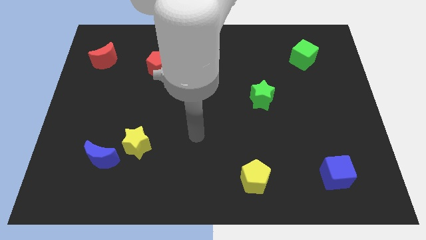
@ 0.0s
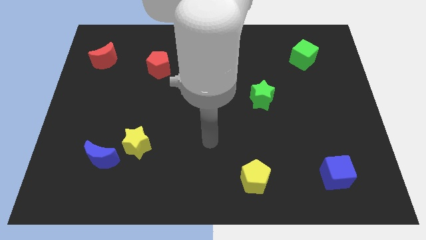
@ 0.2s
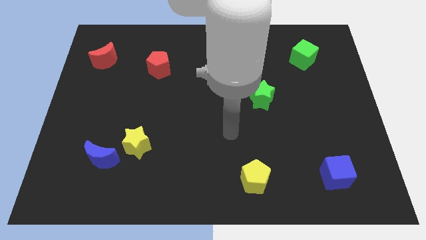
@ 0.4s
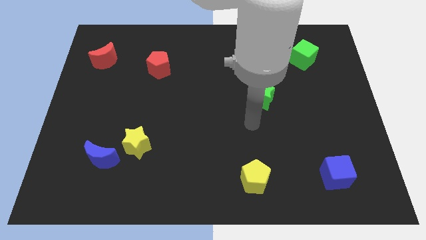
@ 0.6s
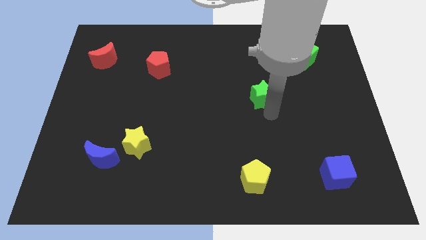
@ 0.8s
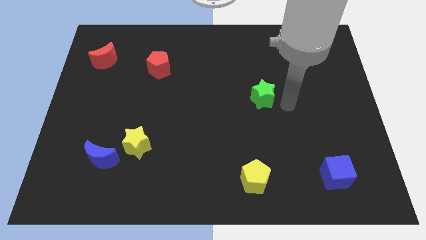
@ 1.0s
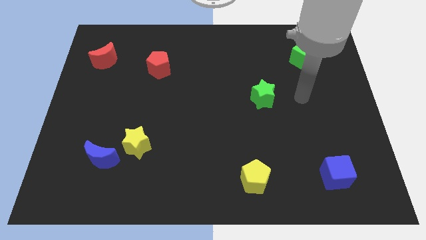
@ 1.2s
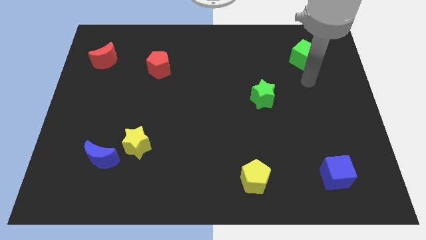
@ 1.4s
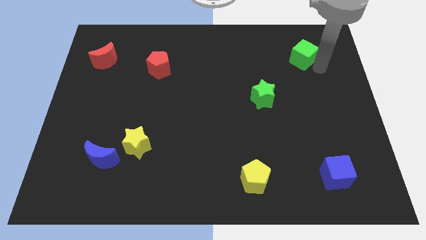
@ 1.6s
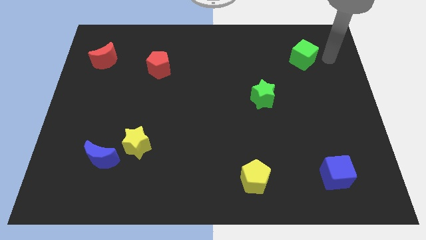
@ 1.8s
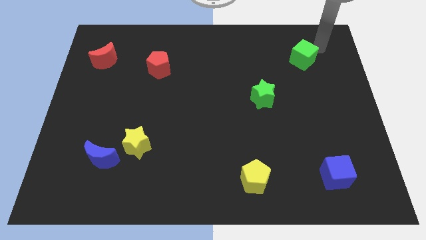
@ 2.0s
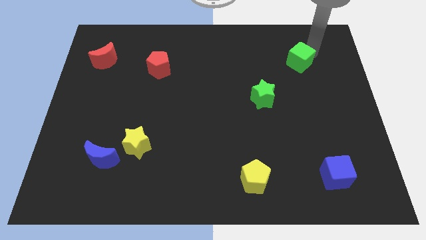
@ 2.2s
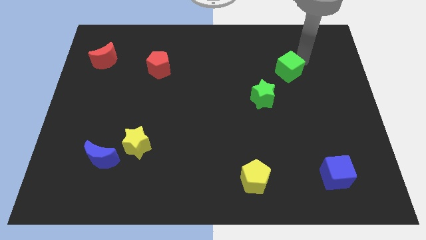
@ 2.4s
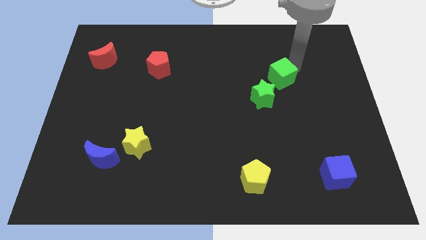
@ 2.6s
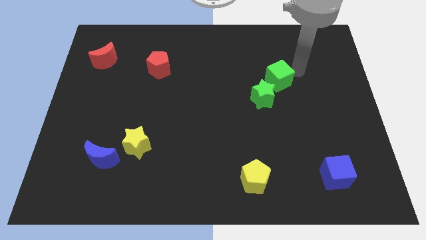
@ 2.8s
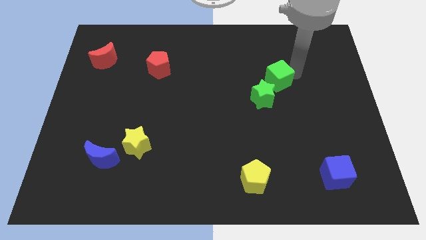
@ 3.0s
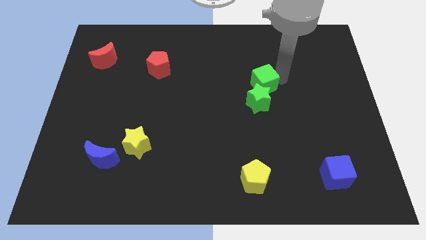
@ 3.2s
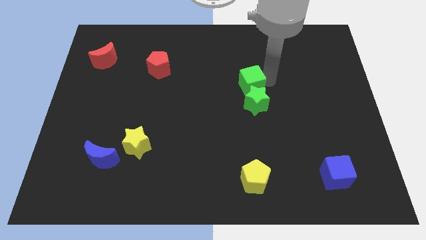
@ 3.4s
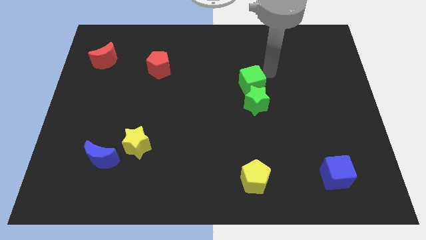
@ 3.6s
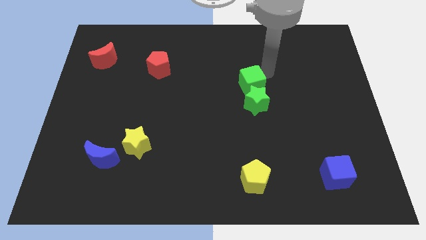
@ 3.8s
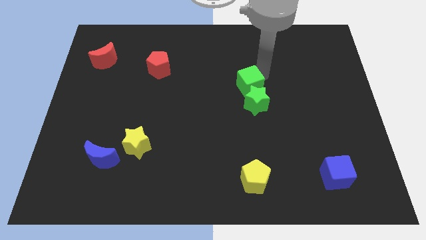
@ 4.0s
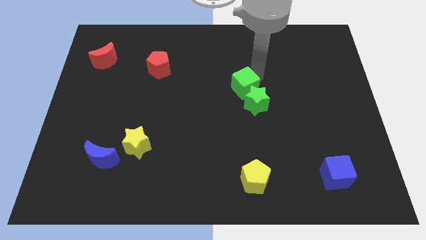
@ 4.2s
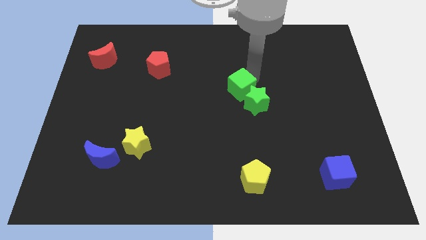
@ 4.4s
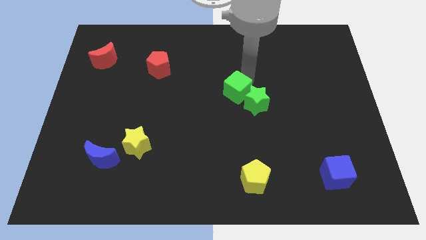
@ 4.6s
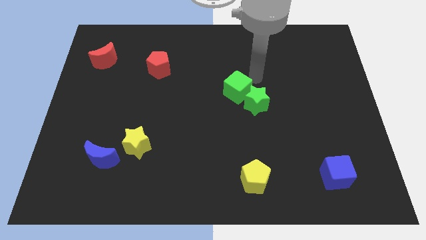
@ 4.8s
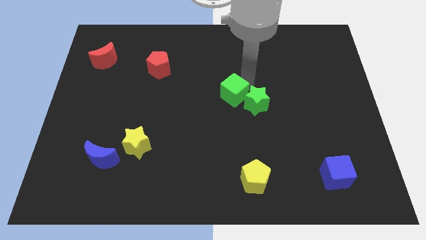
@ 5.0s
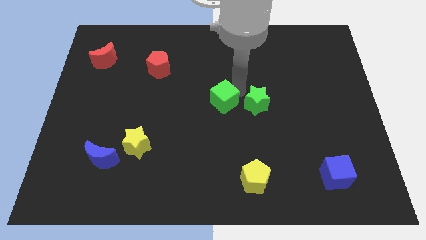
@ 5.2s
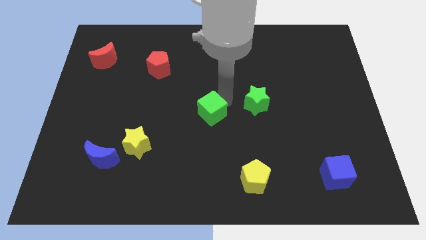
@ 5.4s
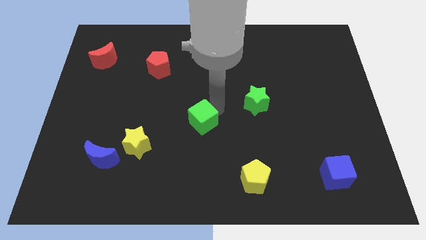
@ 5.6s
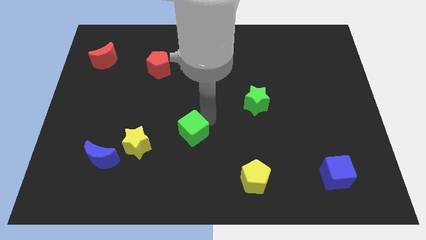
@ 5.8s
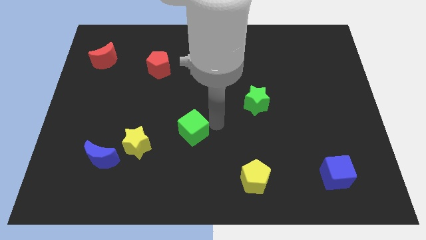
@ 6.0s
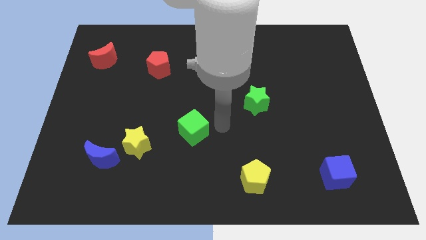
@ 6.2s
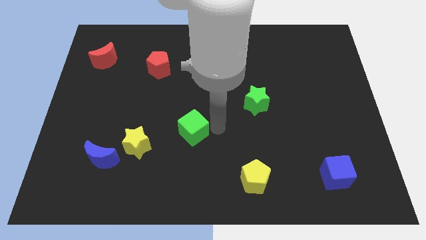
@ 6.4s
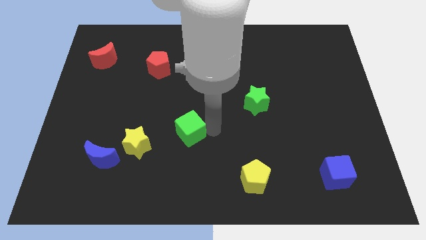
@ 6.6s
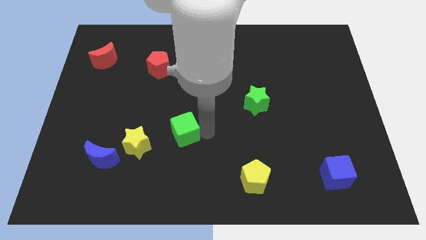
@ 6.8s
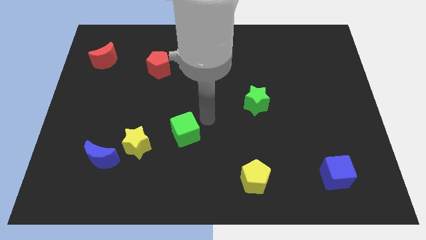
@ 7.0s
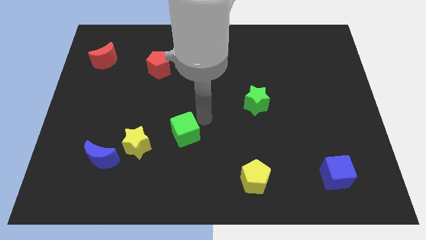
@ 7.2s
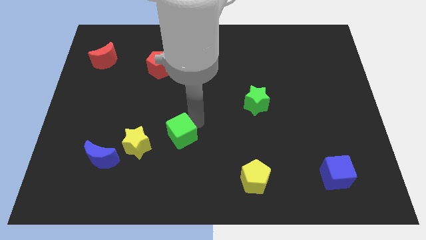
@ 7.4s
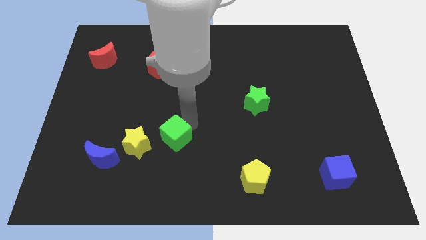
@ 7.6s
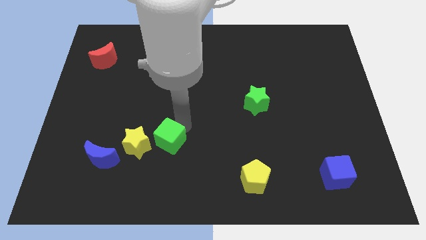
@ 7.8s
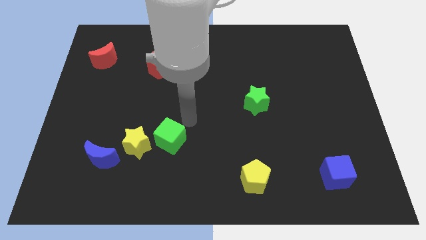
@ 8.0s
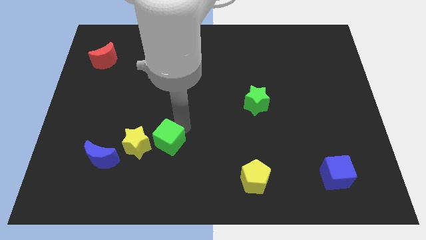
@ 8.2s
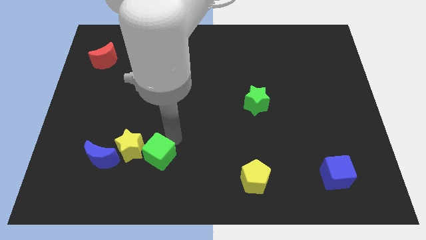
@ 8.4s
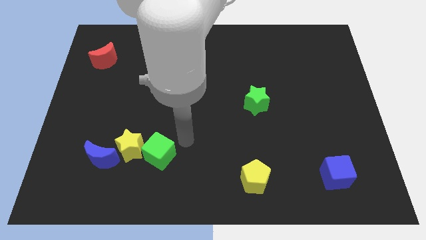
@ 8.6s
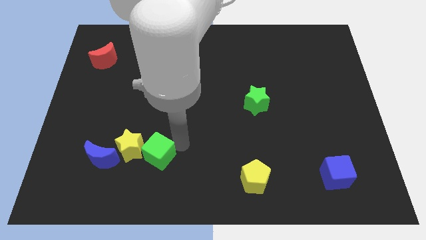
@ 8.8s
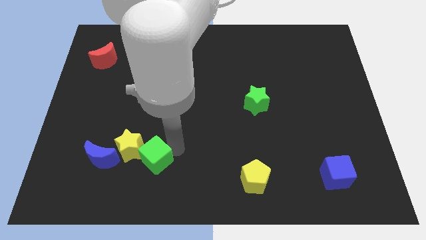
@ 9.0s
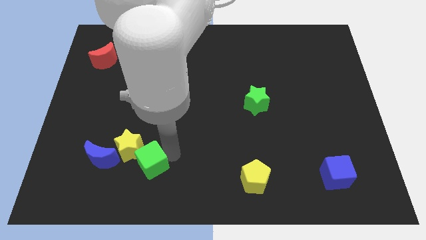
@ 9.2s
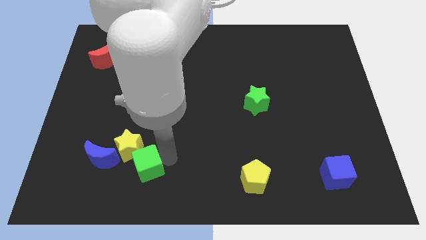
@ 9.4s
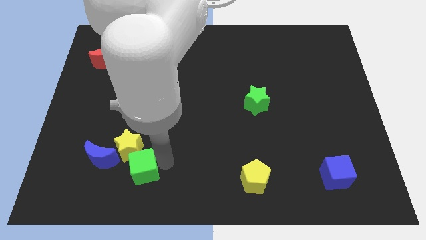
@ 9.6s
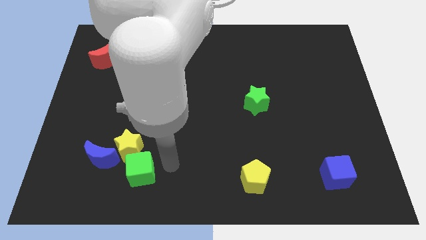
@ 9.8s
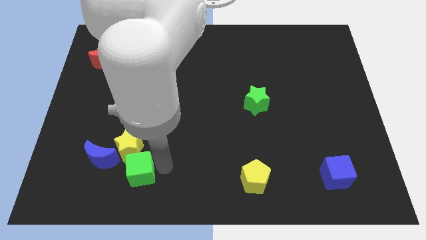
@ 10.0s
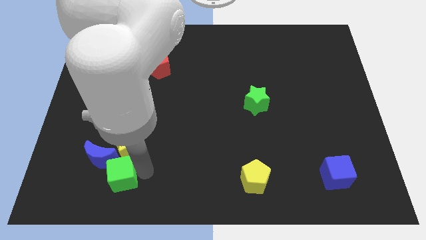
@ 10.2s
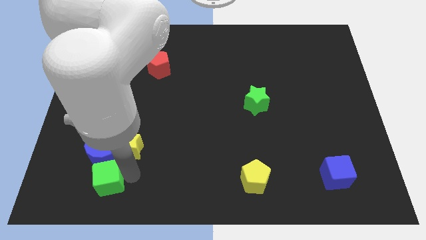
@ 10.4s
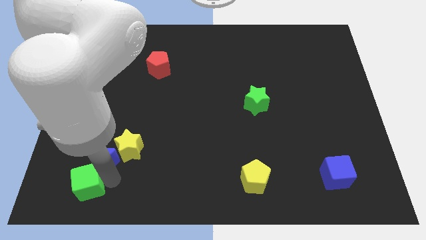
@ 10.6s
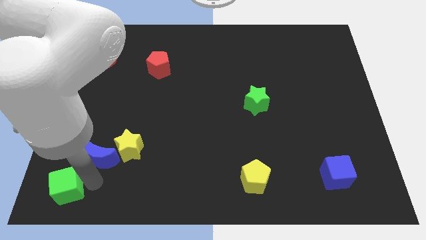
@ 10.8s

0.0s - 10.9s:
move the green cube to the bottom left of the board

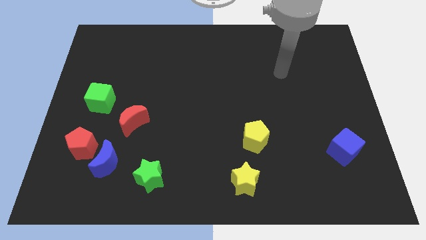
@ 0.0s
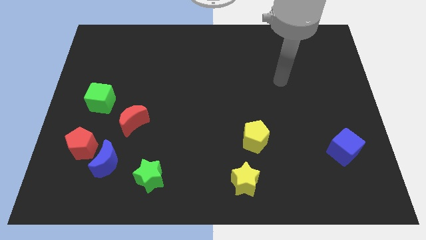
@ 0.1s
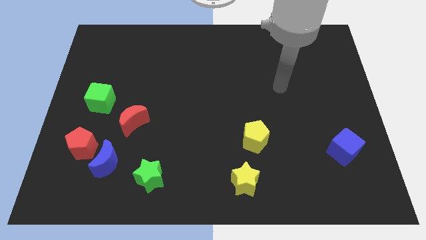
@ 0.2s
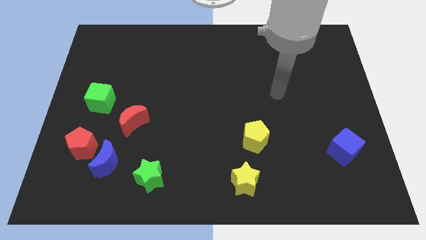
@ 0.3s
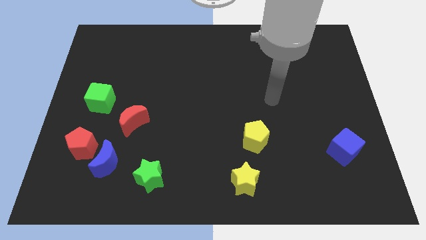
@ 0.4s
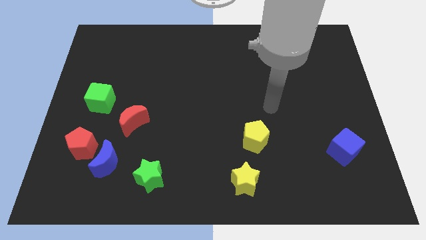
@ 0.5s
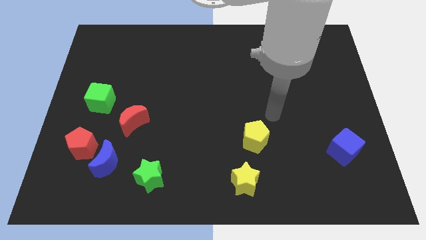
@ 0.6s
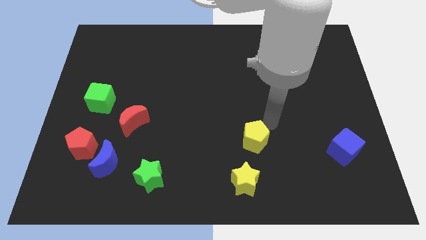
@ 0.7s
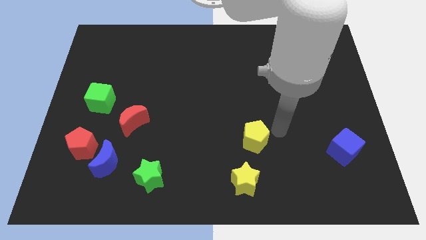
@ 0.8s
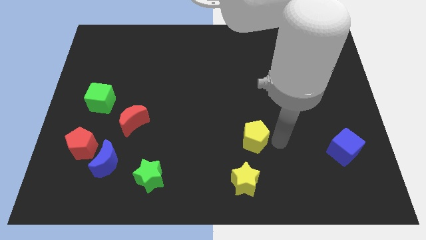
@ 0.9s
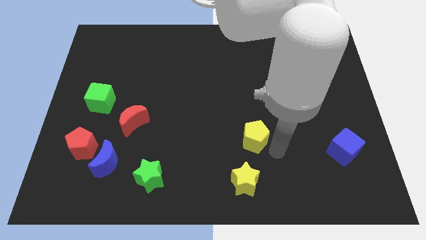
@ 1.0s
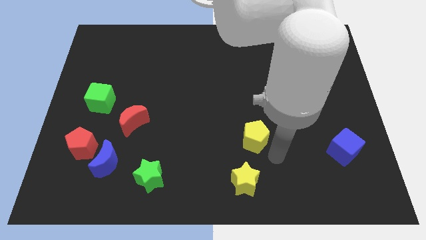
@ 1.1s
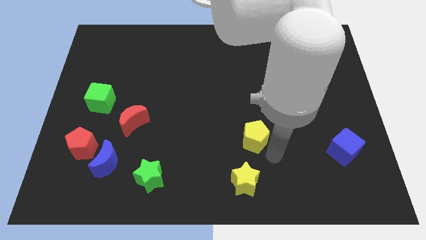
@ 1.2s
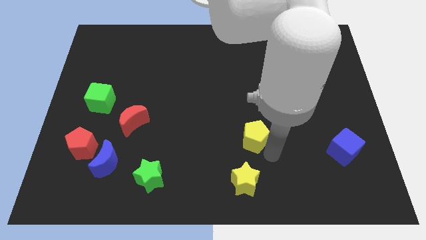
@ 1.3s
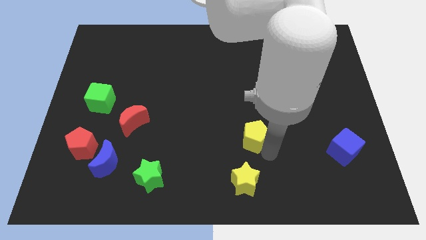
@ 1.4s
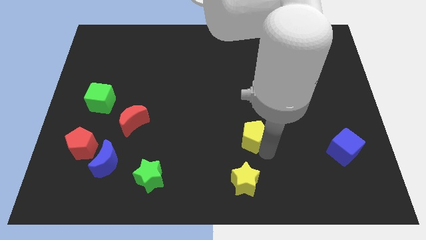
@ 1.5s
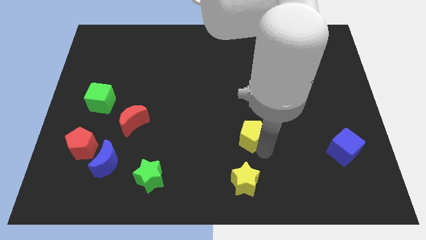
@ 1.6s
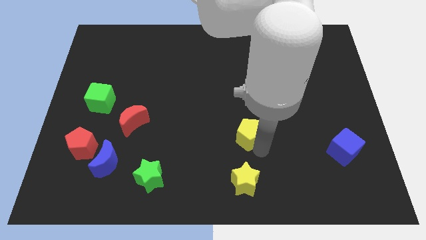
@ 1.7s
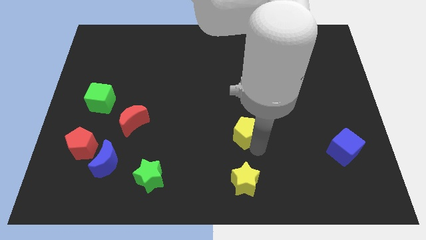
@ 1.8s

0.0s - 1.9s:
move the yellow pentagon to the center of the board
